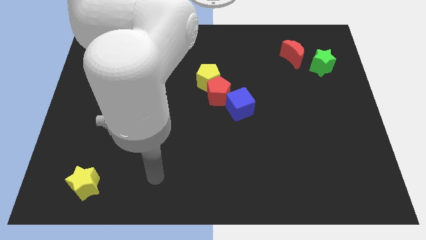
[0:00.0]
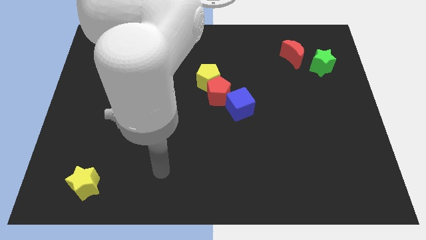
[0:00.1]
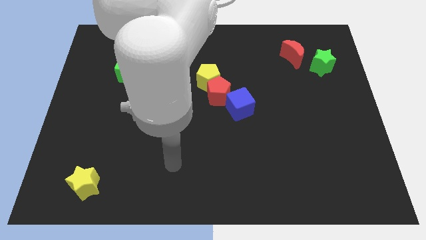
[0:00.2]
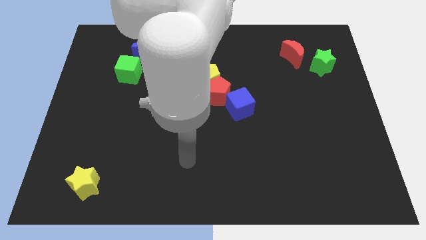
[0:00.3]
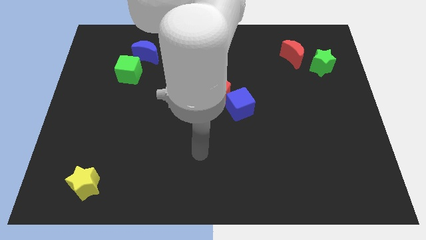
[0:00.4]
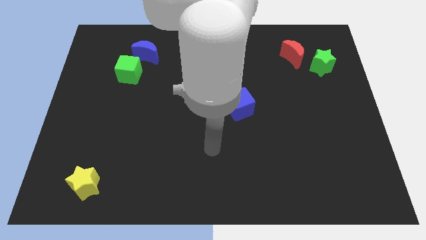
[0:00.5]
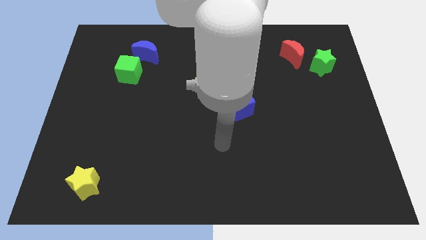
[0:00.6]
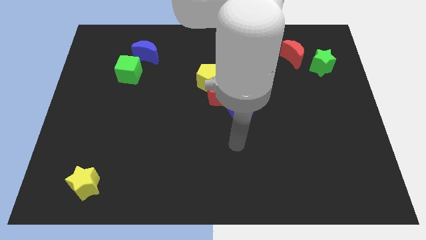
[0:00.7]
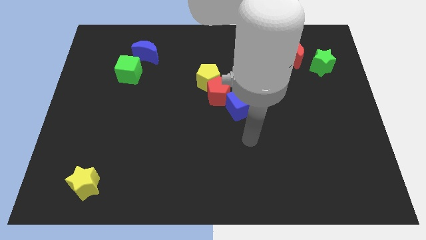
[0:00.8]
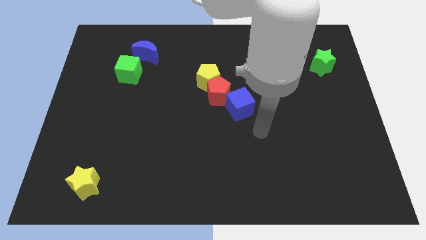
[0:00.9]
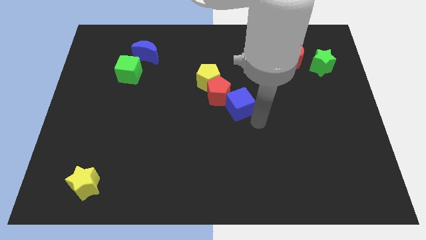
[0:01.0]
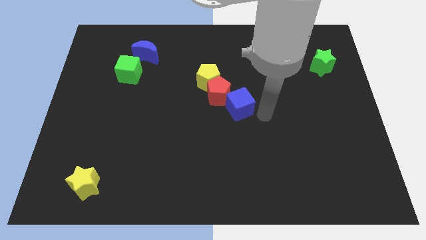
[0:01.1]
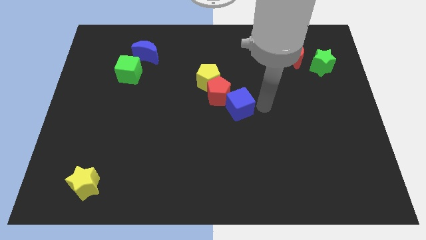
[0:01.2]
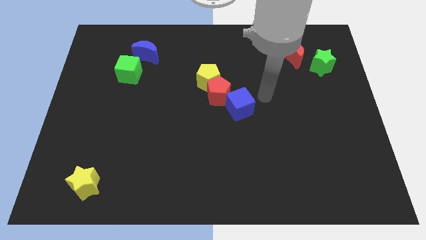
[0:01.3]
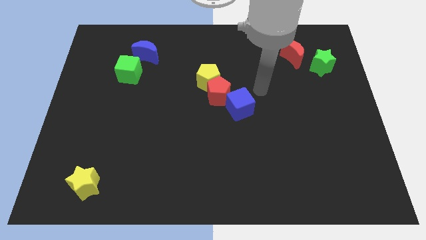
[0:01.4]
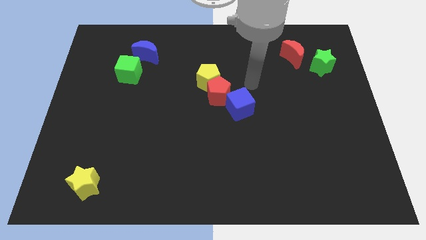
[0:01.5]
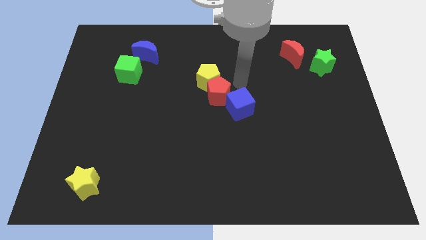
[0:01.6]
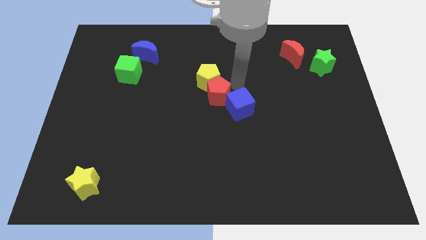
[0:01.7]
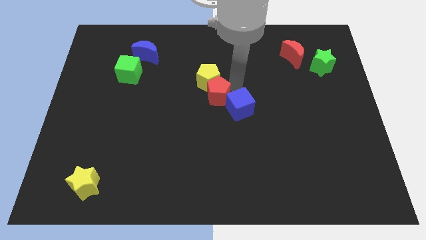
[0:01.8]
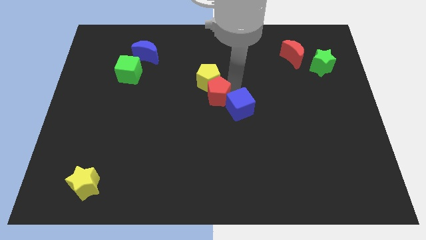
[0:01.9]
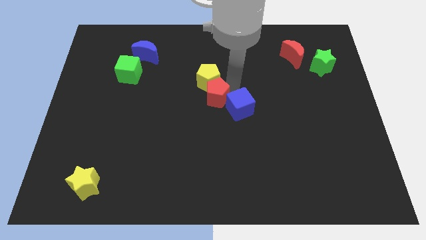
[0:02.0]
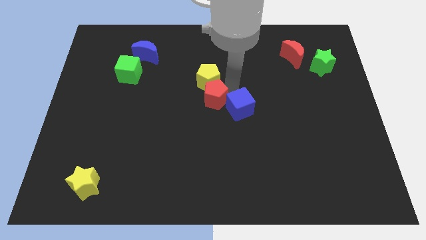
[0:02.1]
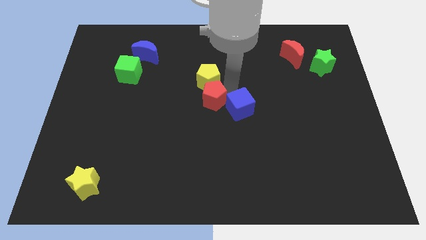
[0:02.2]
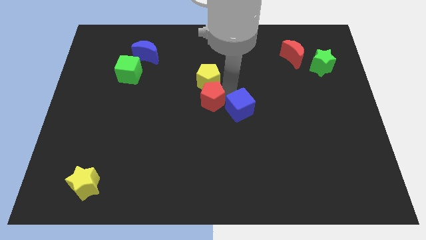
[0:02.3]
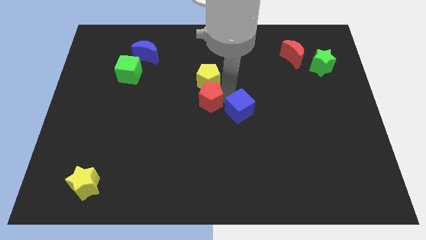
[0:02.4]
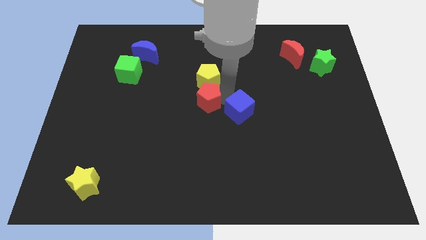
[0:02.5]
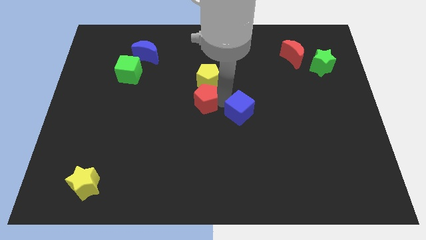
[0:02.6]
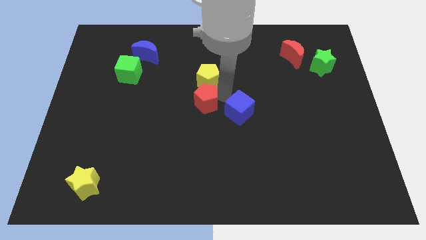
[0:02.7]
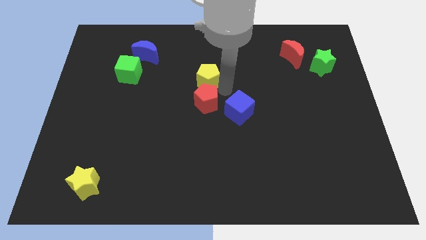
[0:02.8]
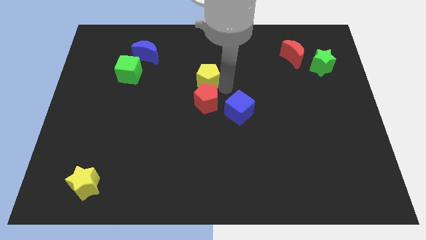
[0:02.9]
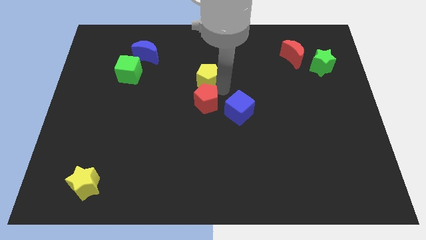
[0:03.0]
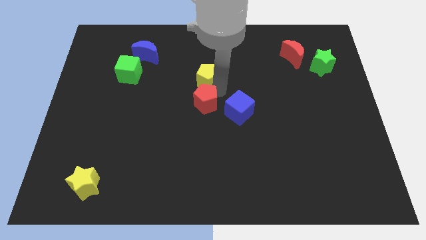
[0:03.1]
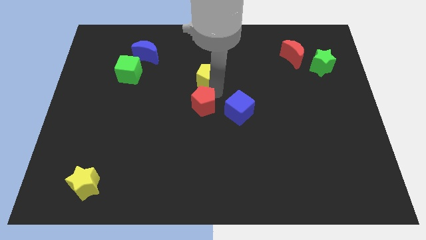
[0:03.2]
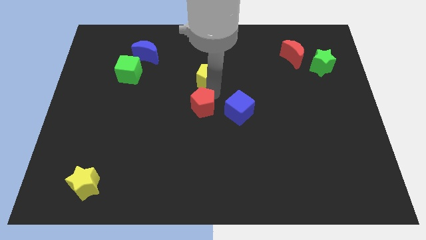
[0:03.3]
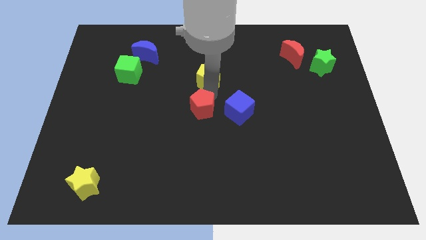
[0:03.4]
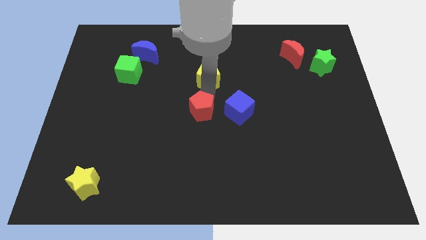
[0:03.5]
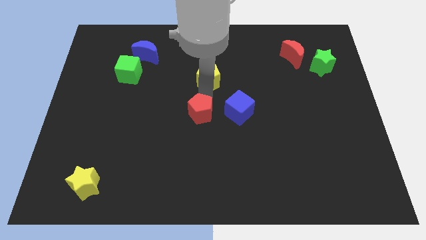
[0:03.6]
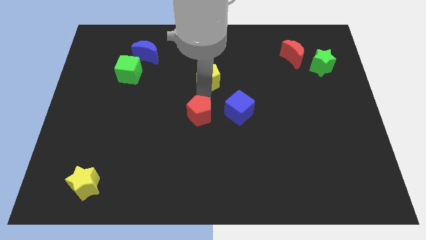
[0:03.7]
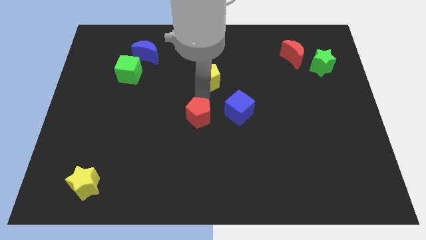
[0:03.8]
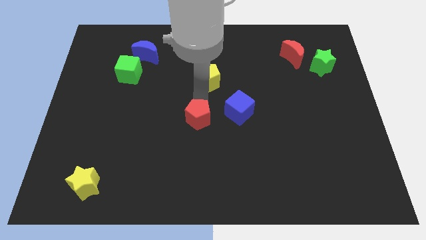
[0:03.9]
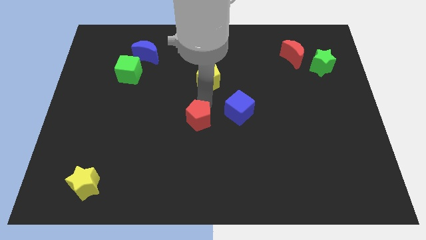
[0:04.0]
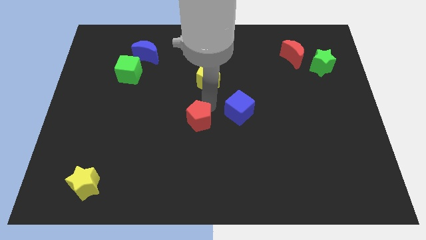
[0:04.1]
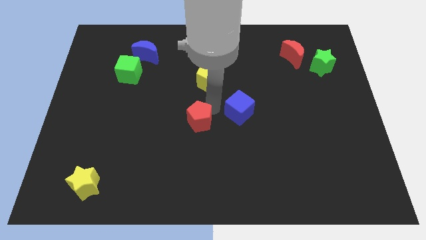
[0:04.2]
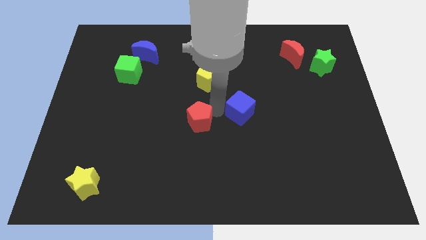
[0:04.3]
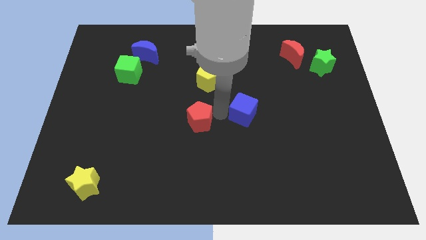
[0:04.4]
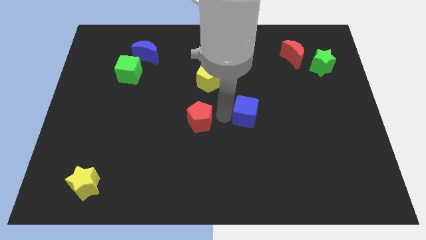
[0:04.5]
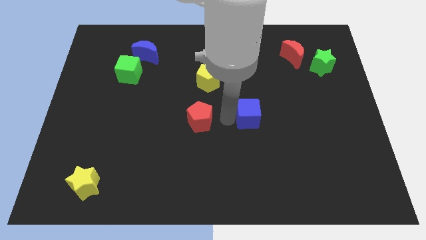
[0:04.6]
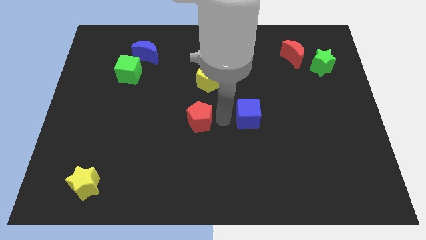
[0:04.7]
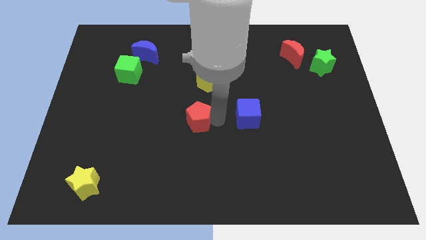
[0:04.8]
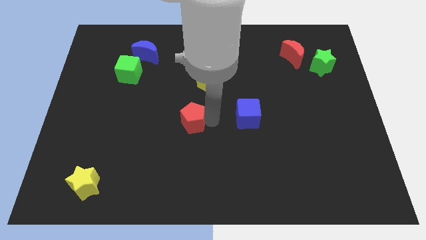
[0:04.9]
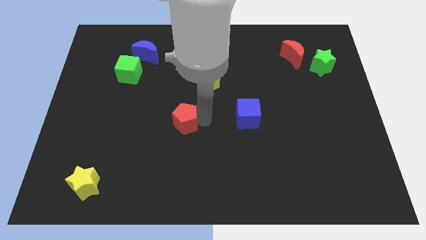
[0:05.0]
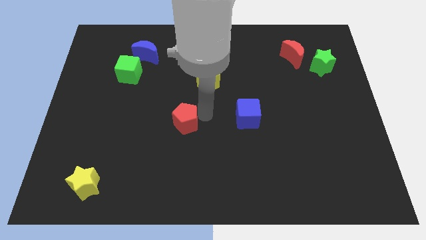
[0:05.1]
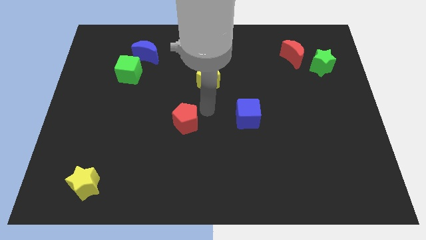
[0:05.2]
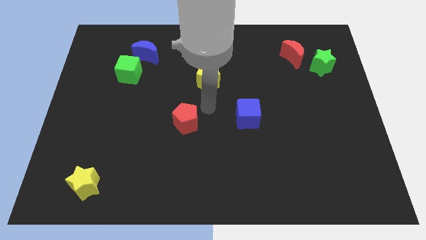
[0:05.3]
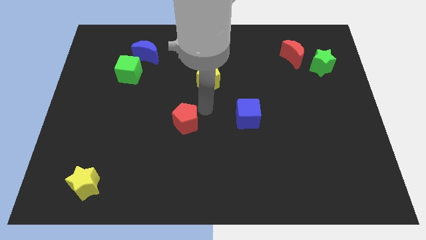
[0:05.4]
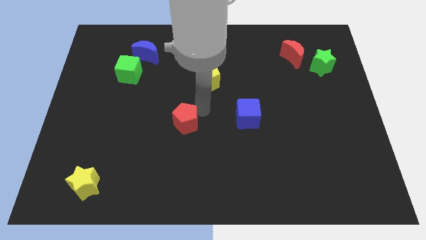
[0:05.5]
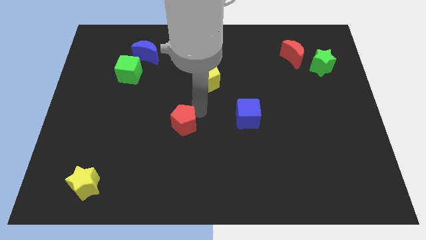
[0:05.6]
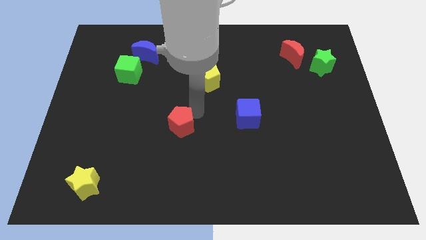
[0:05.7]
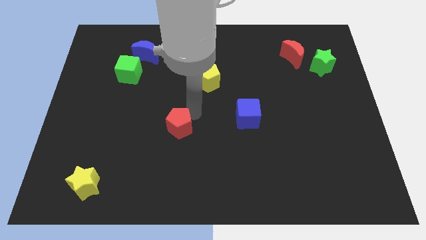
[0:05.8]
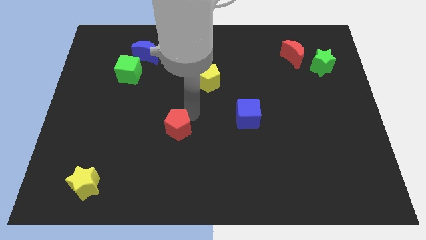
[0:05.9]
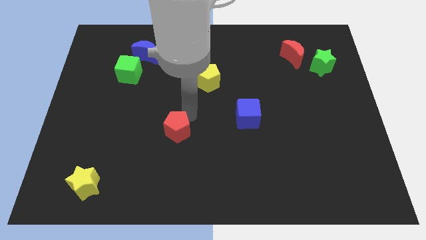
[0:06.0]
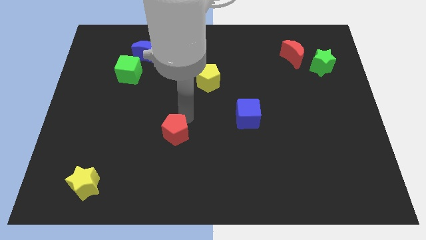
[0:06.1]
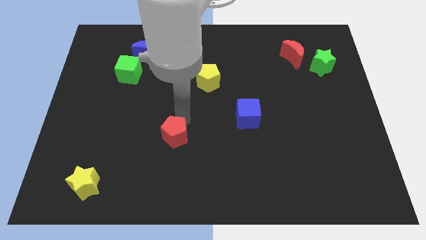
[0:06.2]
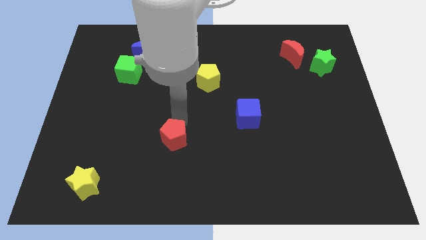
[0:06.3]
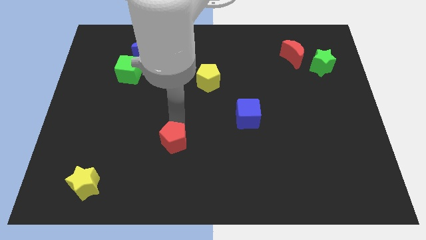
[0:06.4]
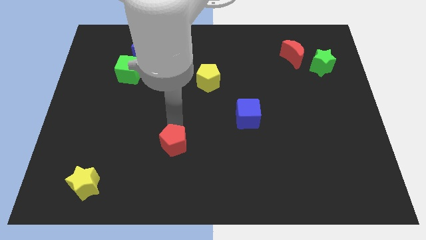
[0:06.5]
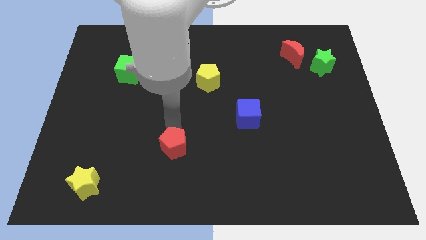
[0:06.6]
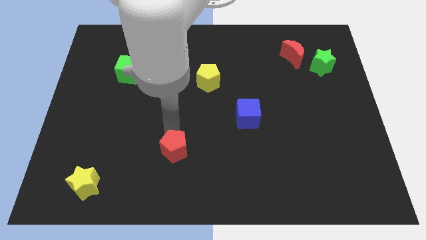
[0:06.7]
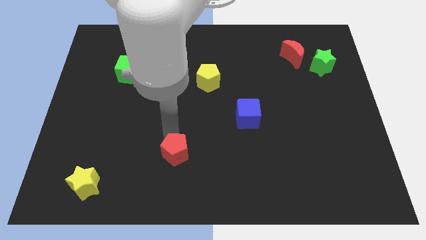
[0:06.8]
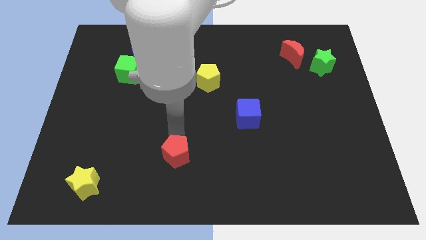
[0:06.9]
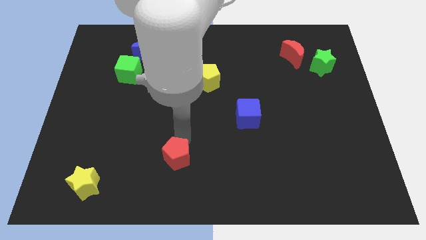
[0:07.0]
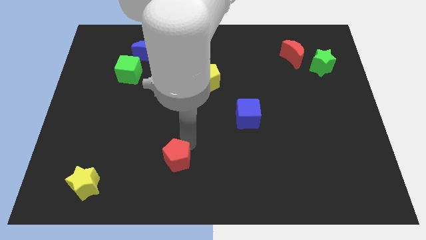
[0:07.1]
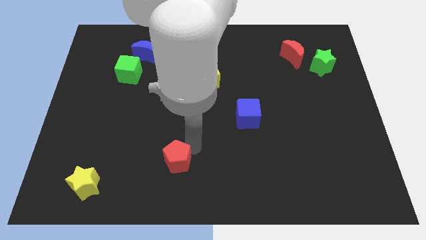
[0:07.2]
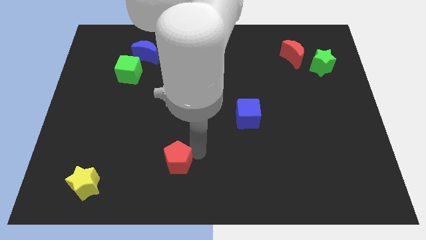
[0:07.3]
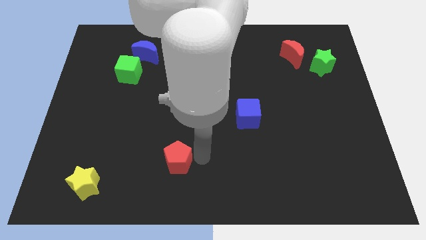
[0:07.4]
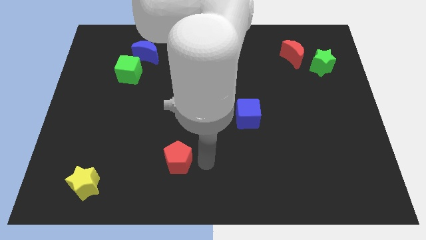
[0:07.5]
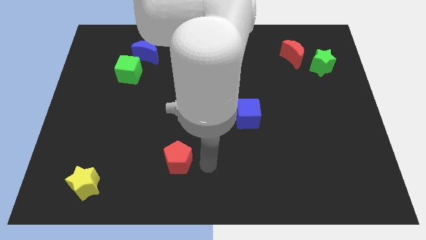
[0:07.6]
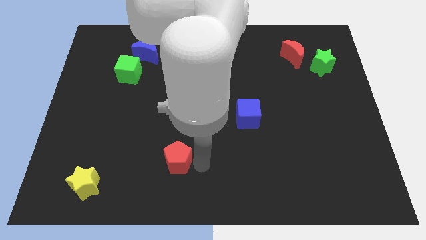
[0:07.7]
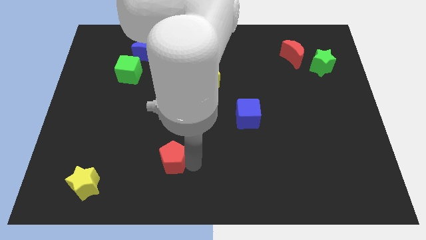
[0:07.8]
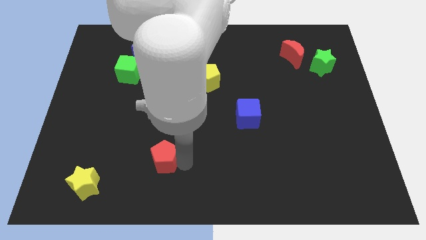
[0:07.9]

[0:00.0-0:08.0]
push the red pentagon down and left

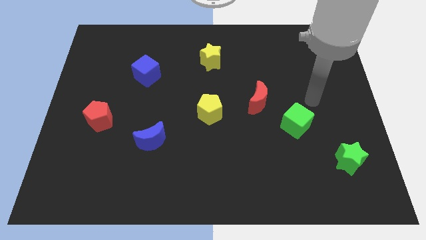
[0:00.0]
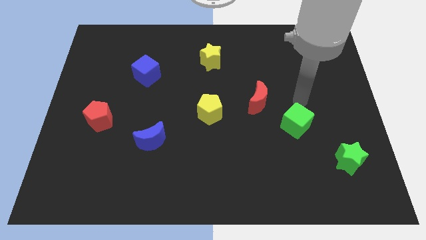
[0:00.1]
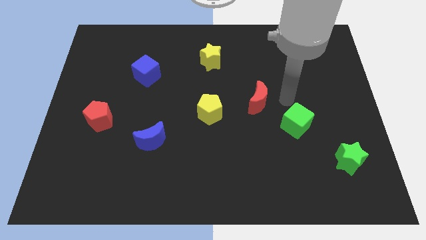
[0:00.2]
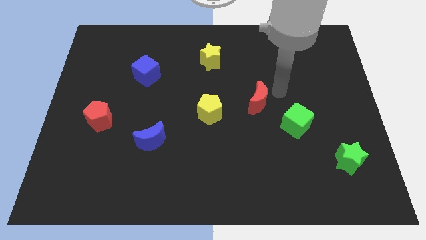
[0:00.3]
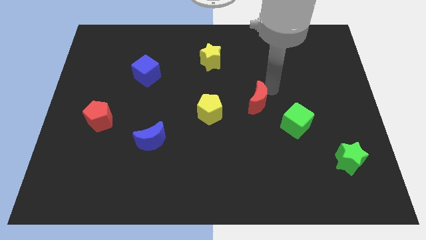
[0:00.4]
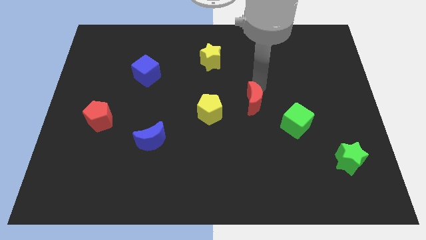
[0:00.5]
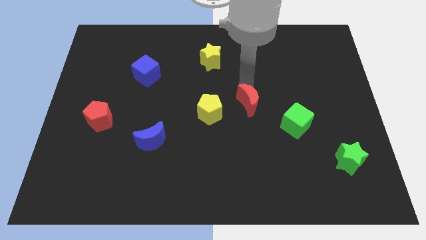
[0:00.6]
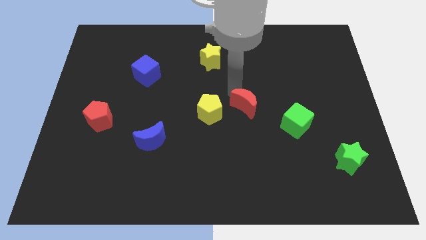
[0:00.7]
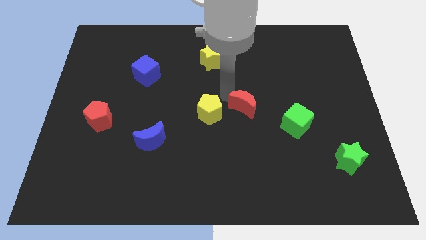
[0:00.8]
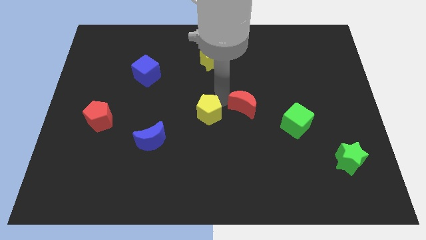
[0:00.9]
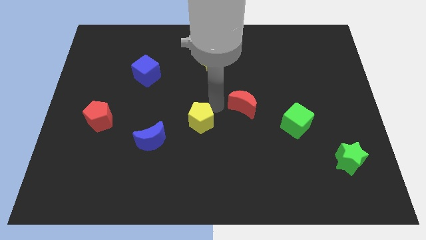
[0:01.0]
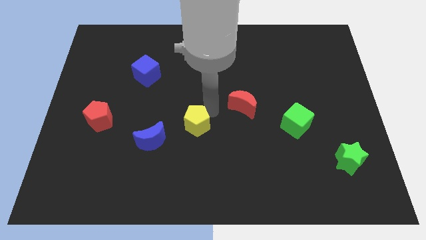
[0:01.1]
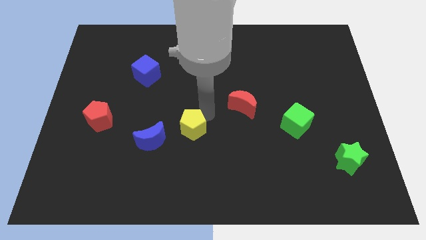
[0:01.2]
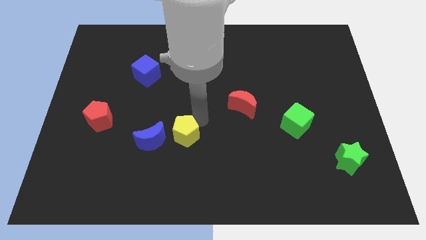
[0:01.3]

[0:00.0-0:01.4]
push the yellow pentagon a little down and to the left diagonally
